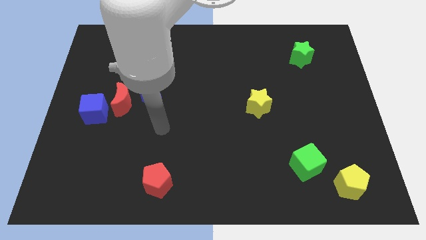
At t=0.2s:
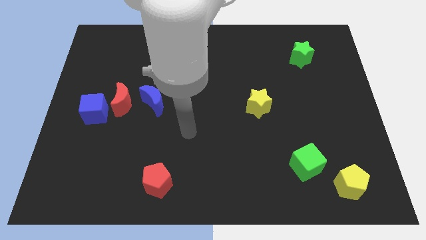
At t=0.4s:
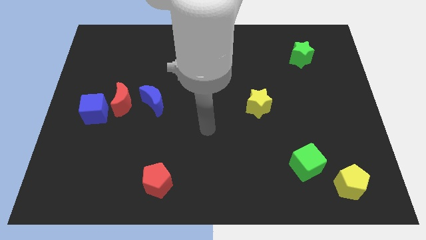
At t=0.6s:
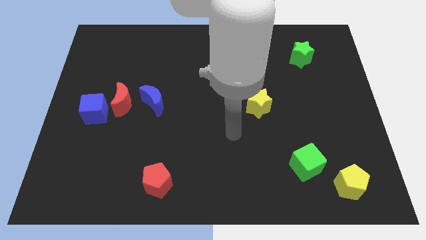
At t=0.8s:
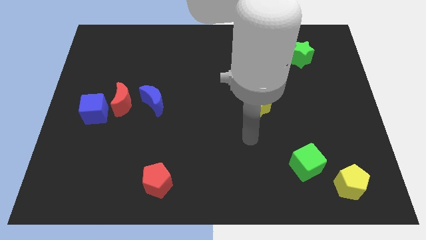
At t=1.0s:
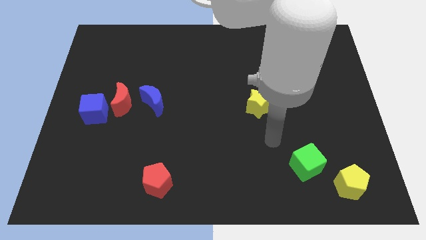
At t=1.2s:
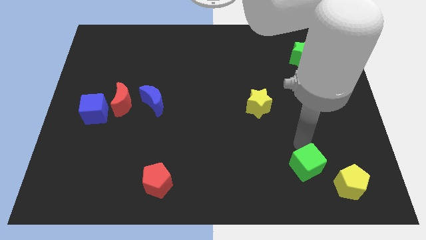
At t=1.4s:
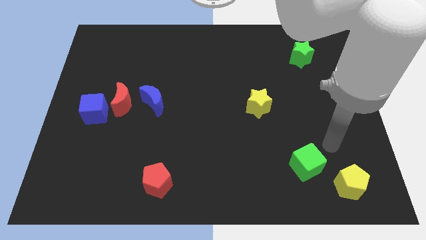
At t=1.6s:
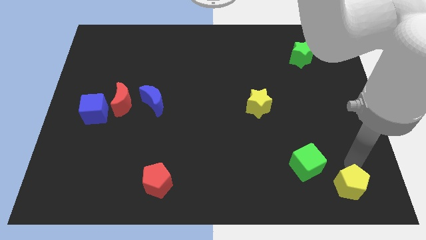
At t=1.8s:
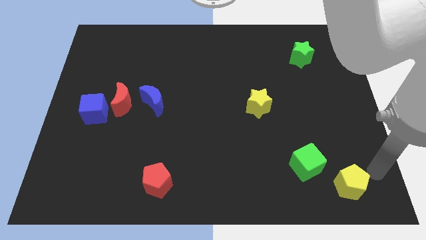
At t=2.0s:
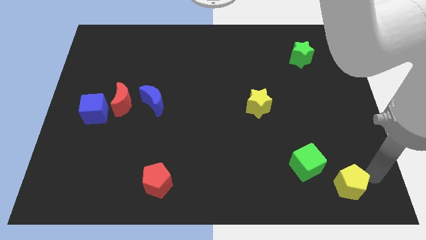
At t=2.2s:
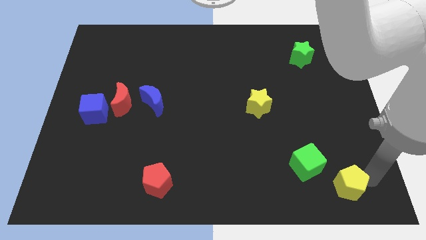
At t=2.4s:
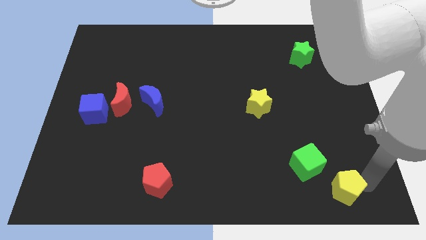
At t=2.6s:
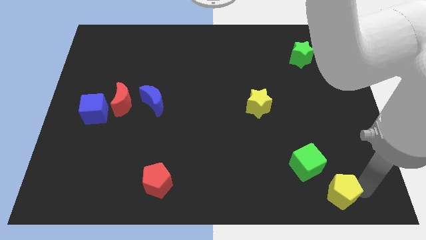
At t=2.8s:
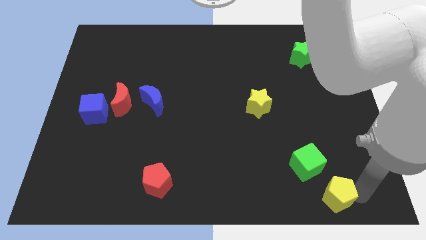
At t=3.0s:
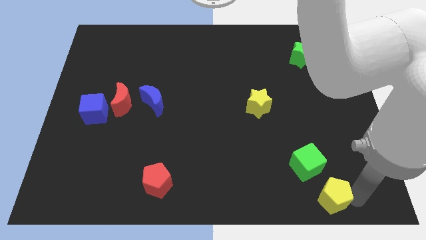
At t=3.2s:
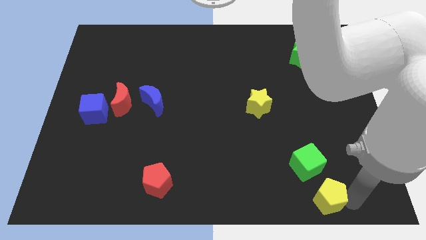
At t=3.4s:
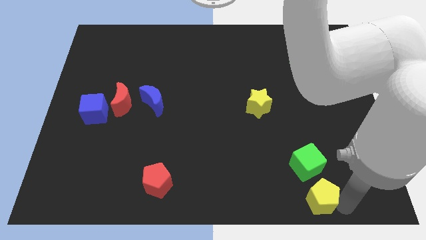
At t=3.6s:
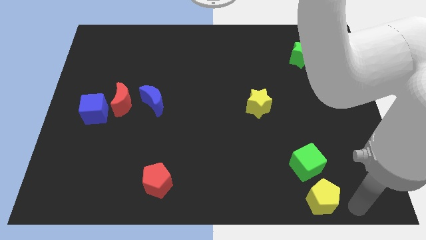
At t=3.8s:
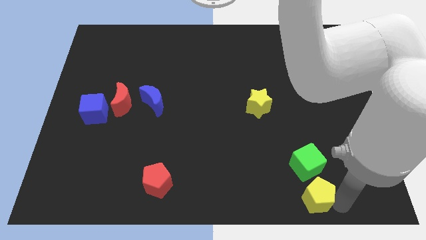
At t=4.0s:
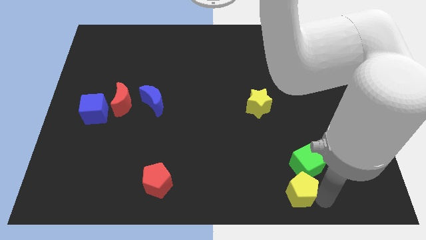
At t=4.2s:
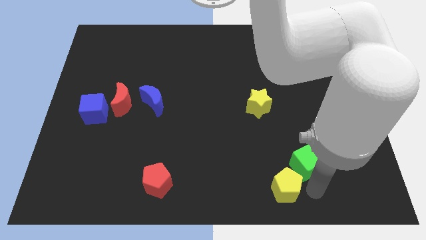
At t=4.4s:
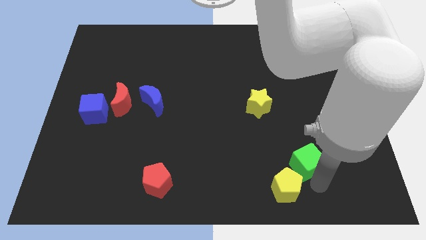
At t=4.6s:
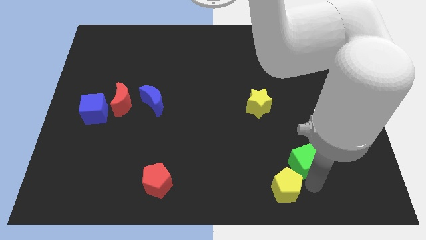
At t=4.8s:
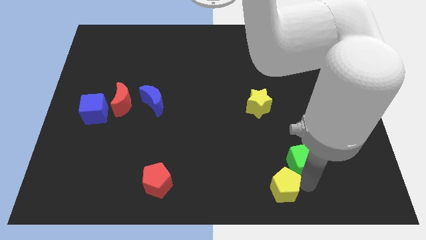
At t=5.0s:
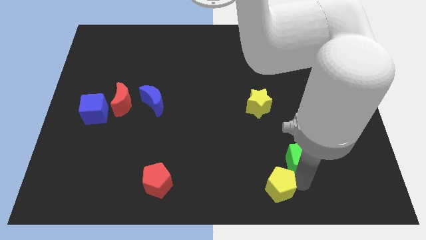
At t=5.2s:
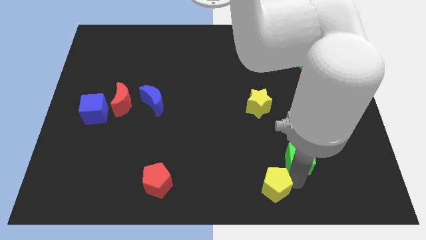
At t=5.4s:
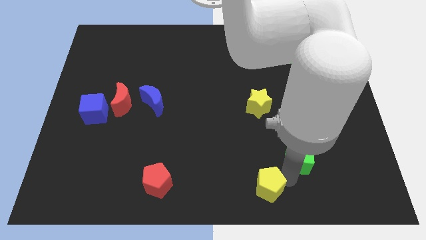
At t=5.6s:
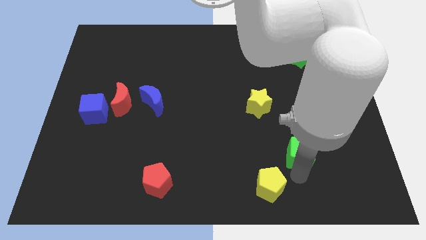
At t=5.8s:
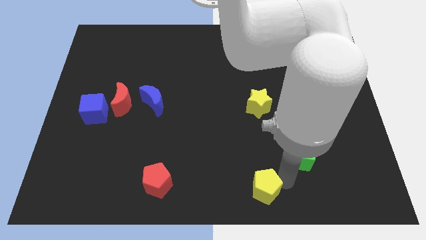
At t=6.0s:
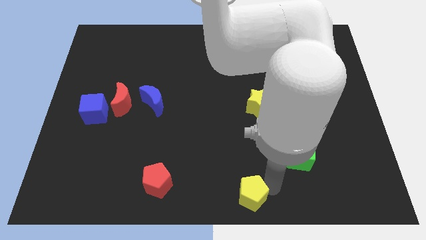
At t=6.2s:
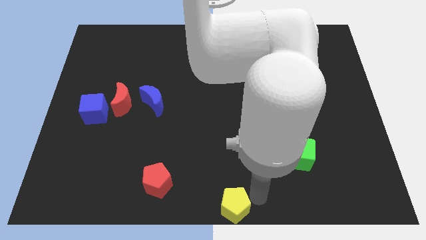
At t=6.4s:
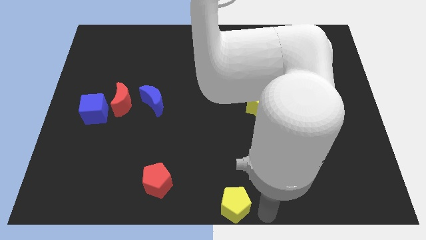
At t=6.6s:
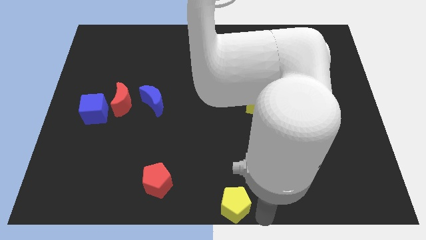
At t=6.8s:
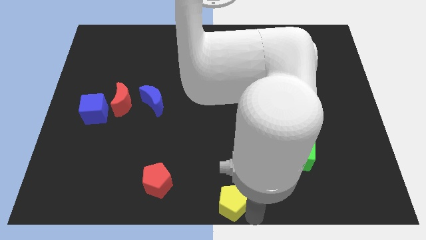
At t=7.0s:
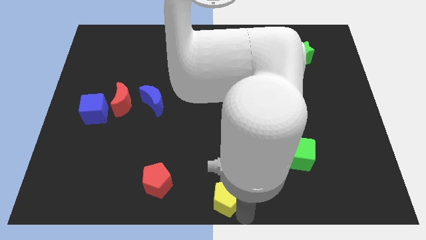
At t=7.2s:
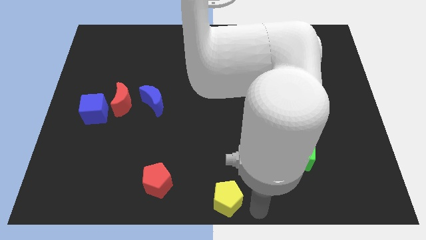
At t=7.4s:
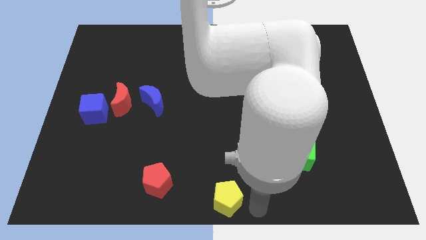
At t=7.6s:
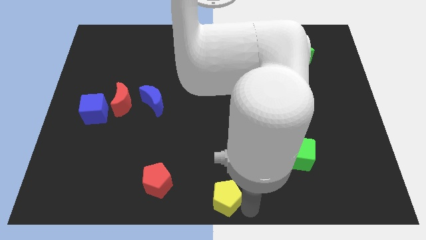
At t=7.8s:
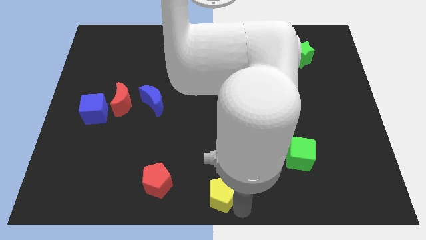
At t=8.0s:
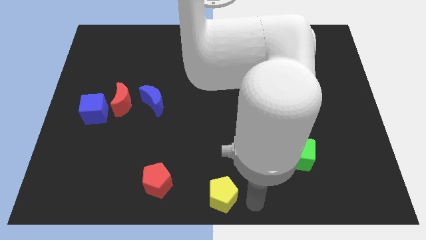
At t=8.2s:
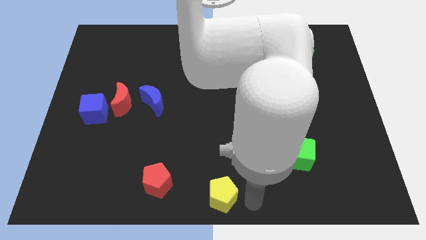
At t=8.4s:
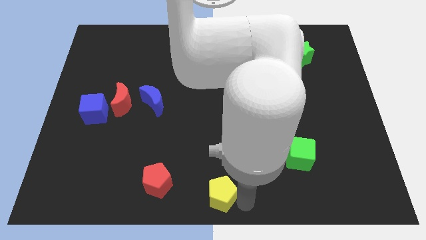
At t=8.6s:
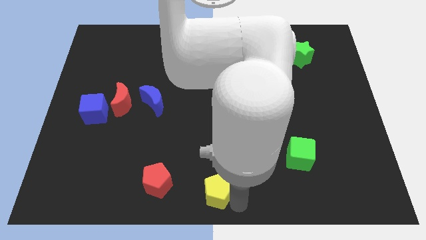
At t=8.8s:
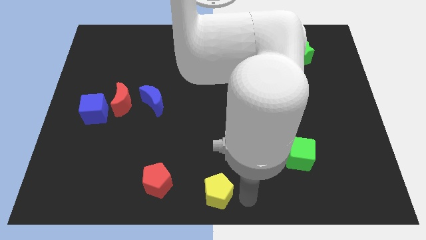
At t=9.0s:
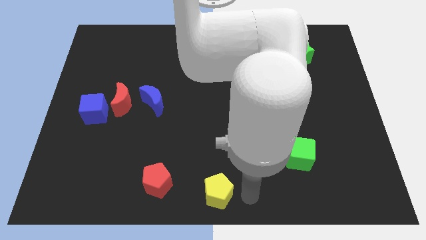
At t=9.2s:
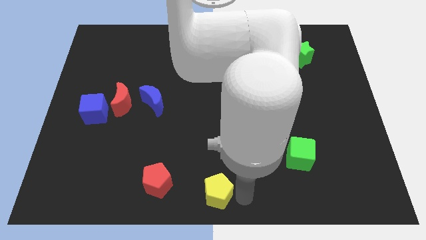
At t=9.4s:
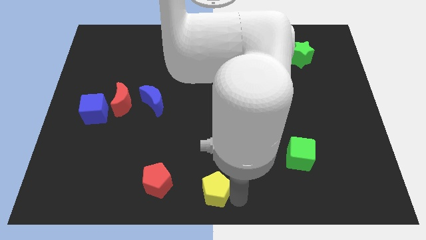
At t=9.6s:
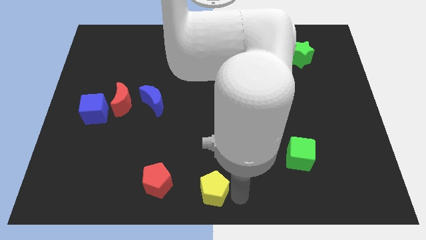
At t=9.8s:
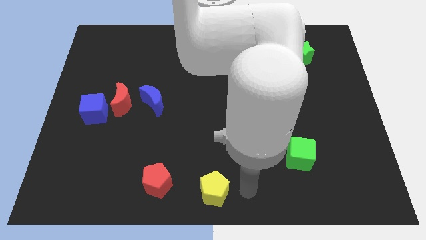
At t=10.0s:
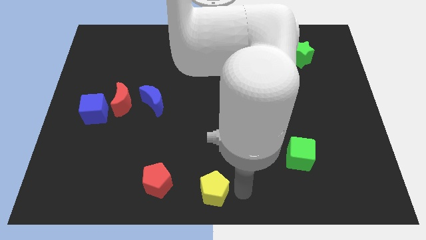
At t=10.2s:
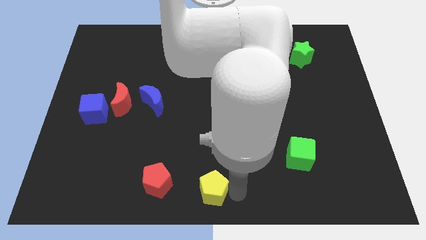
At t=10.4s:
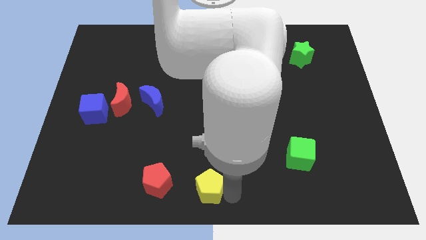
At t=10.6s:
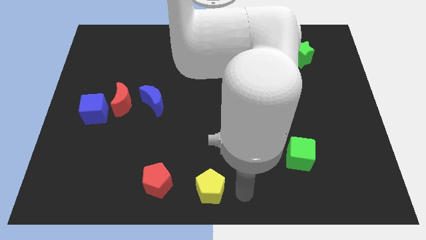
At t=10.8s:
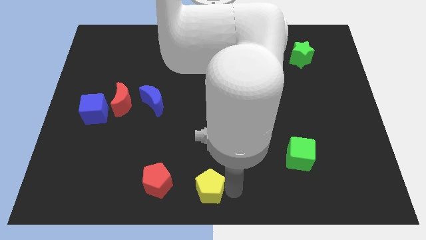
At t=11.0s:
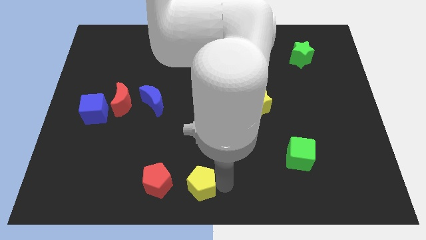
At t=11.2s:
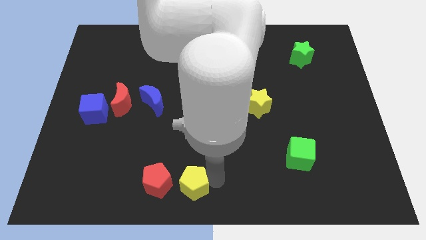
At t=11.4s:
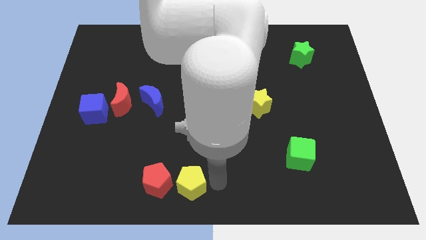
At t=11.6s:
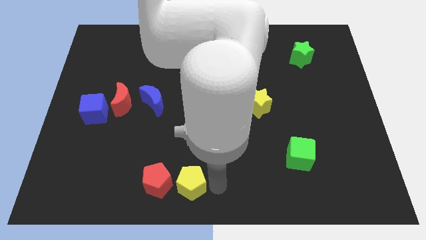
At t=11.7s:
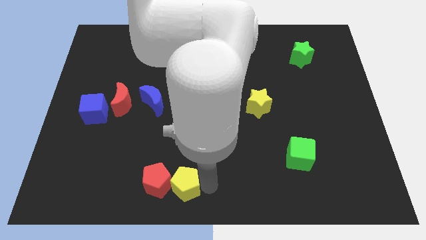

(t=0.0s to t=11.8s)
put the yellow pentagon to the red pentagon

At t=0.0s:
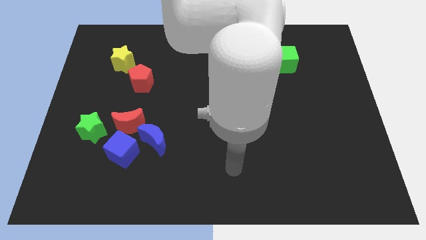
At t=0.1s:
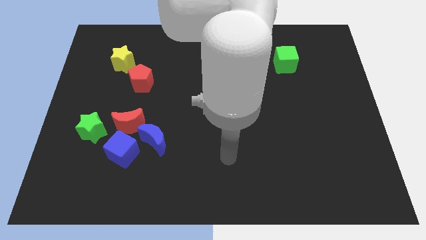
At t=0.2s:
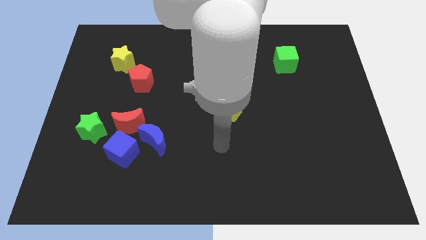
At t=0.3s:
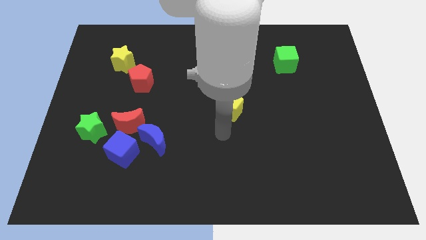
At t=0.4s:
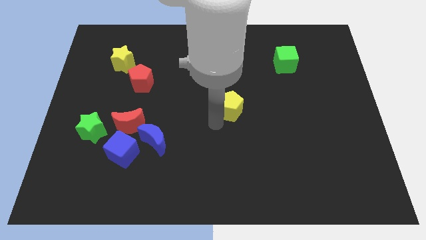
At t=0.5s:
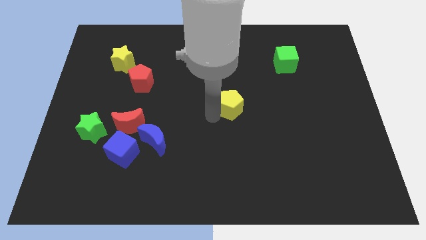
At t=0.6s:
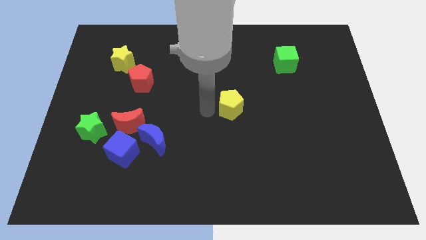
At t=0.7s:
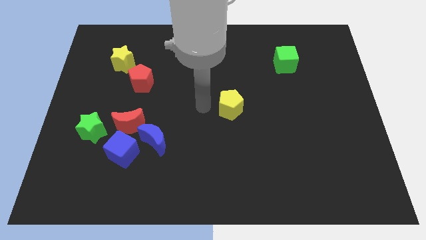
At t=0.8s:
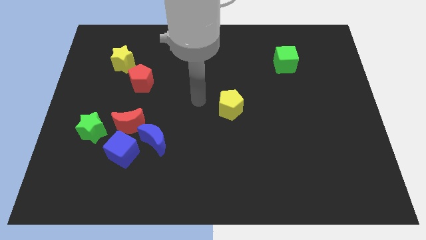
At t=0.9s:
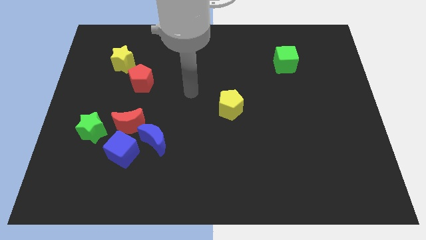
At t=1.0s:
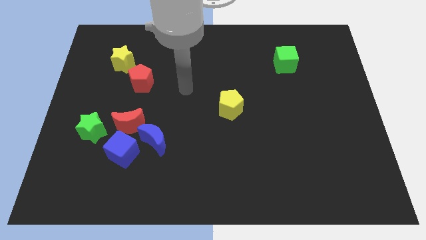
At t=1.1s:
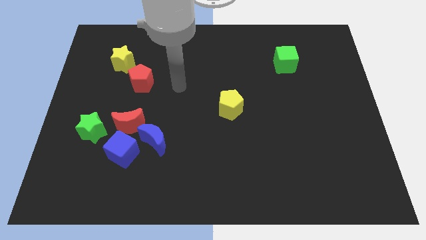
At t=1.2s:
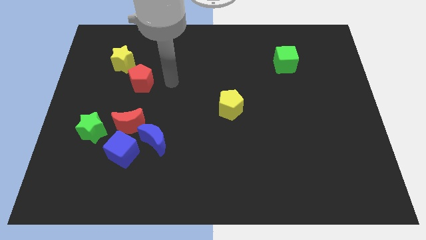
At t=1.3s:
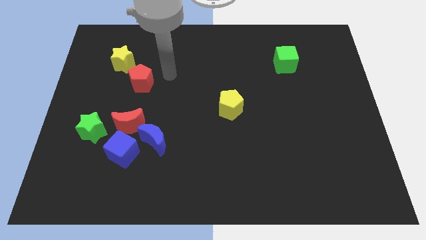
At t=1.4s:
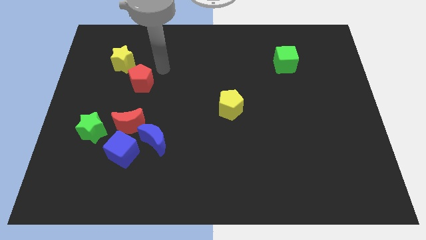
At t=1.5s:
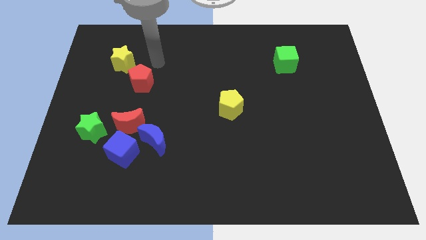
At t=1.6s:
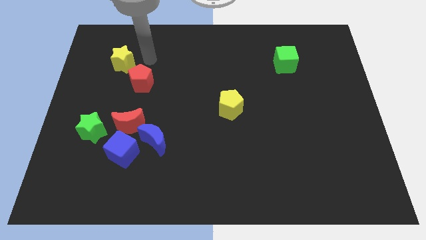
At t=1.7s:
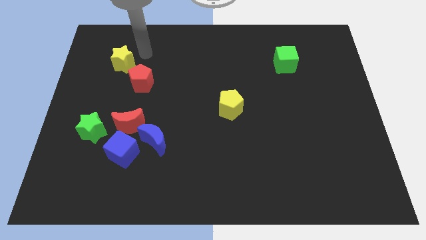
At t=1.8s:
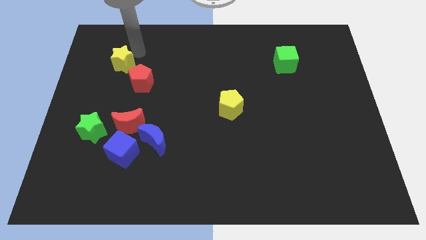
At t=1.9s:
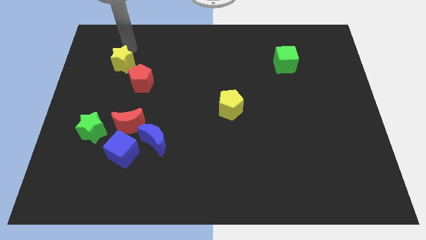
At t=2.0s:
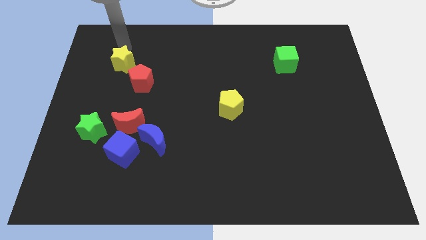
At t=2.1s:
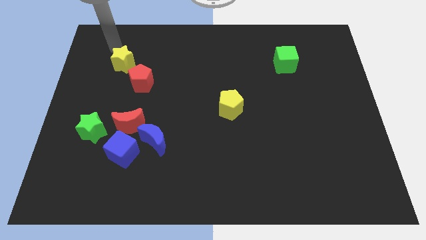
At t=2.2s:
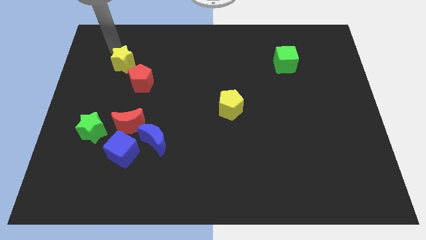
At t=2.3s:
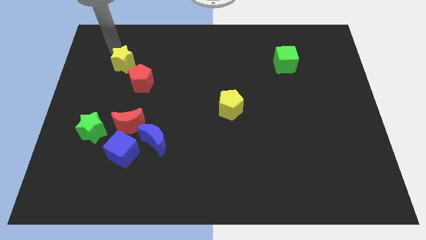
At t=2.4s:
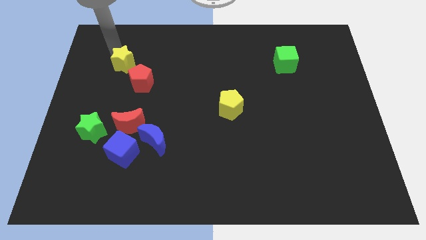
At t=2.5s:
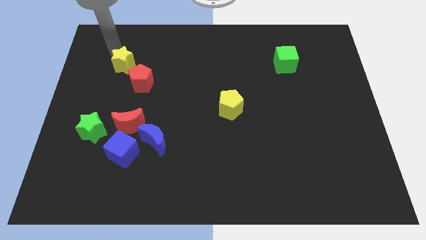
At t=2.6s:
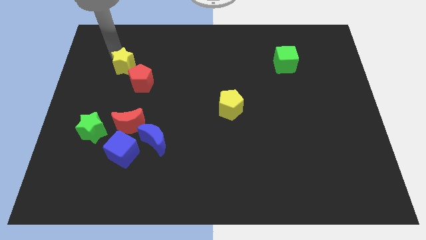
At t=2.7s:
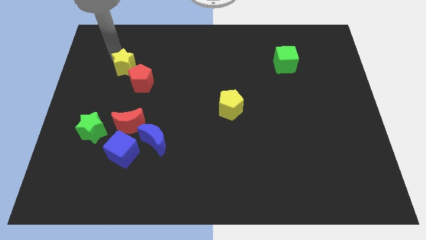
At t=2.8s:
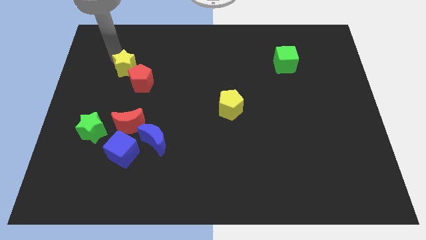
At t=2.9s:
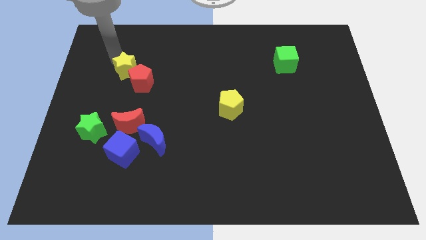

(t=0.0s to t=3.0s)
slide the yellow star towards the red pentagon
